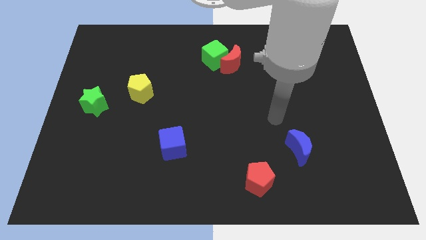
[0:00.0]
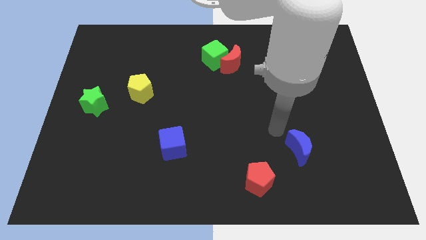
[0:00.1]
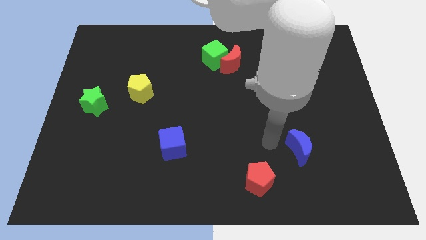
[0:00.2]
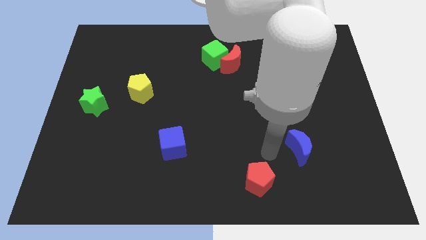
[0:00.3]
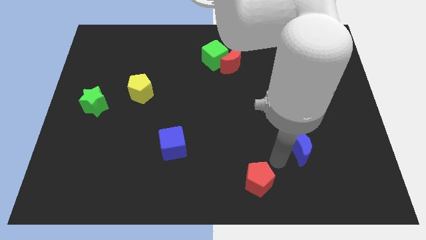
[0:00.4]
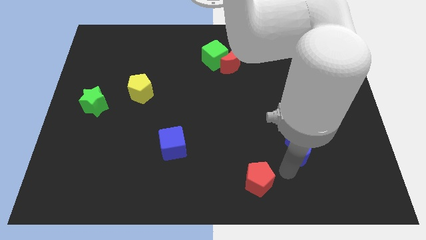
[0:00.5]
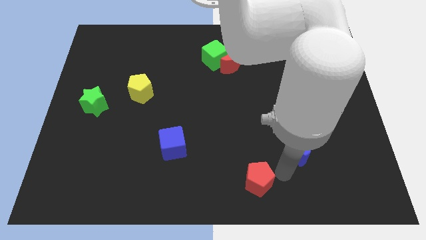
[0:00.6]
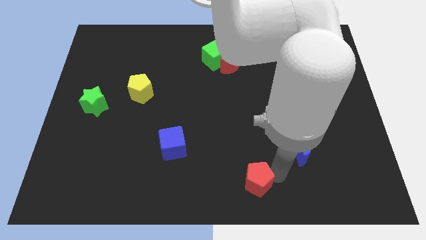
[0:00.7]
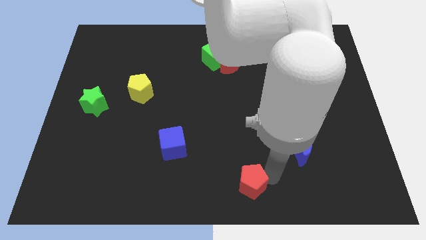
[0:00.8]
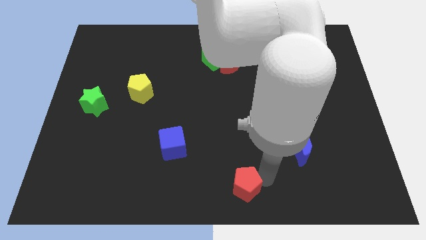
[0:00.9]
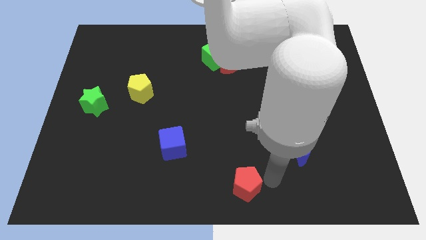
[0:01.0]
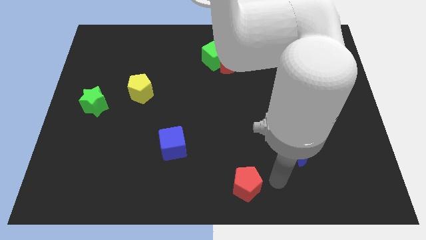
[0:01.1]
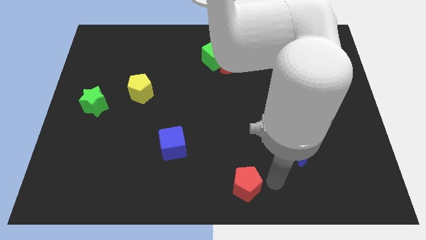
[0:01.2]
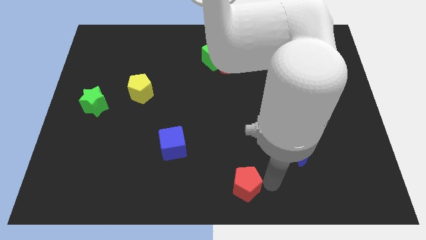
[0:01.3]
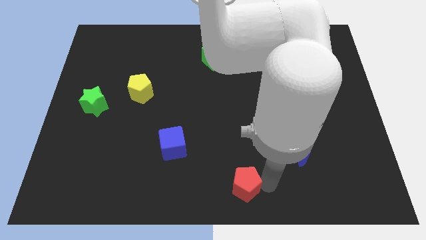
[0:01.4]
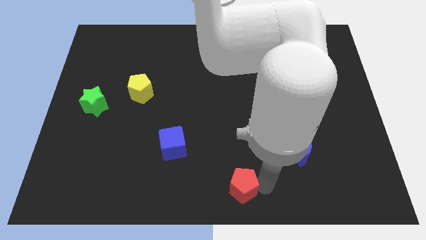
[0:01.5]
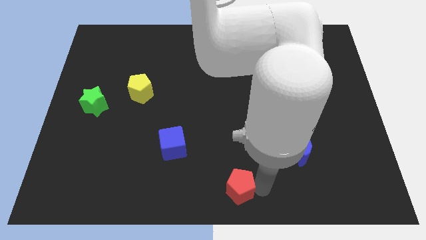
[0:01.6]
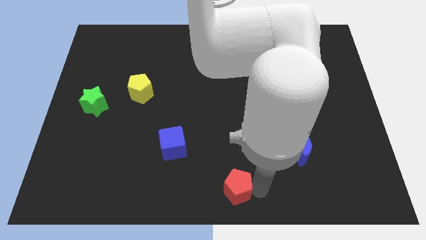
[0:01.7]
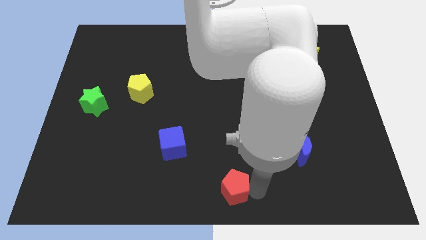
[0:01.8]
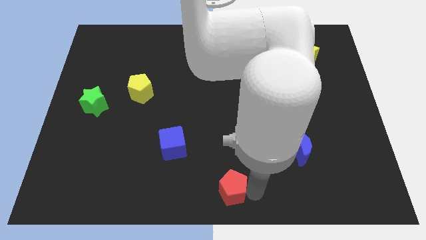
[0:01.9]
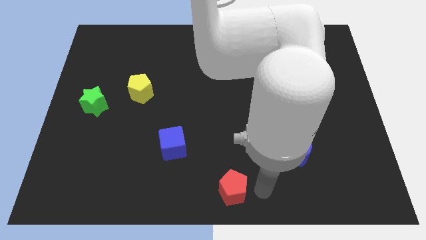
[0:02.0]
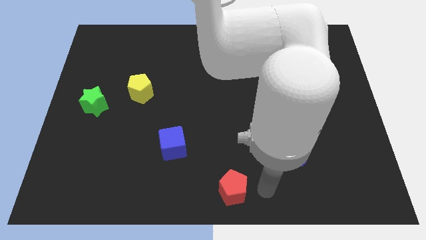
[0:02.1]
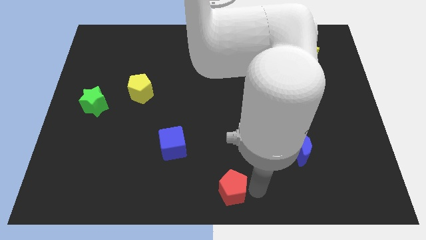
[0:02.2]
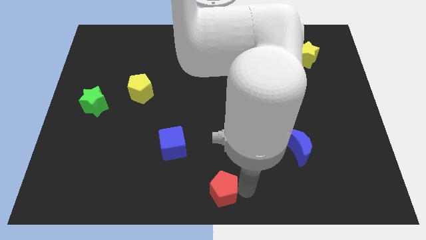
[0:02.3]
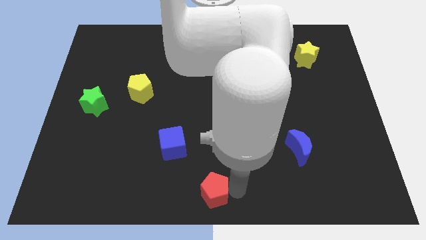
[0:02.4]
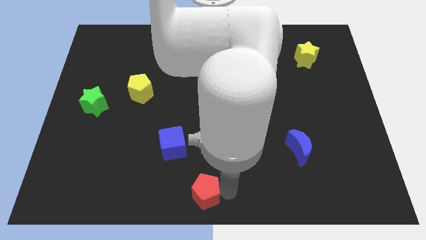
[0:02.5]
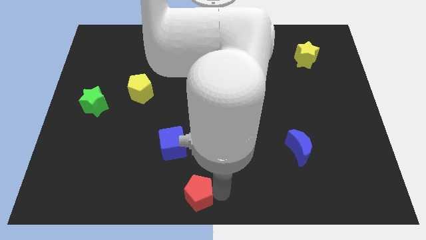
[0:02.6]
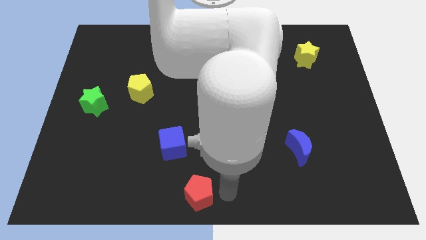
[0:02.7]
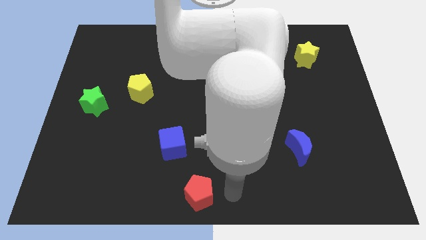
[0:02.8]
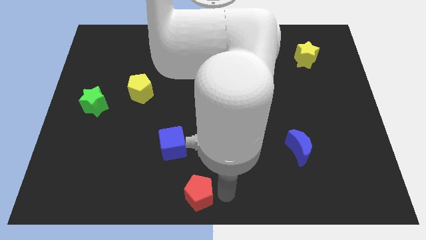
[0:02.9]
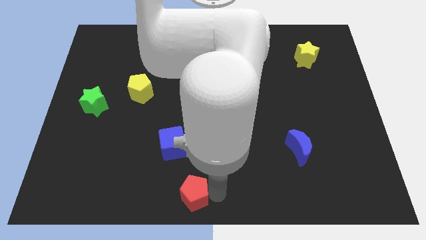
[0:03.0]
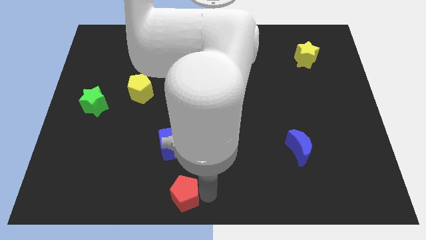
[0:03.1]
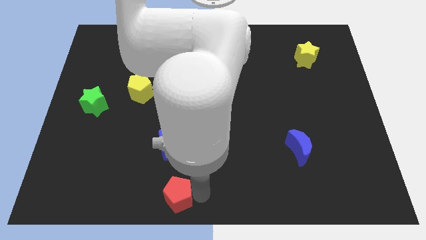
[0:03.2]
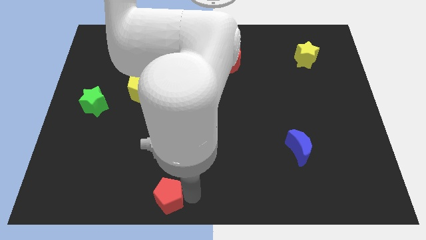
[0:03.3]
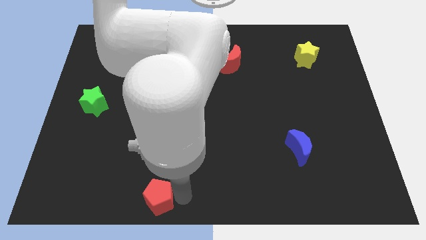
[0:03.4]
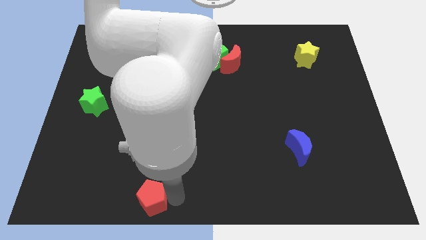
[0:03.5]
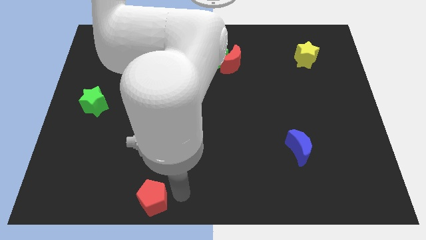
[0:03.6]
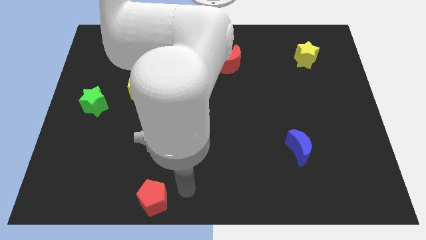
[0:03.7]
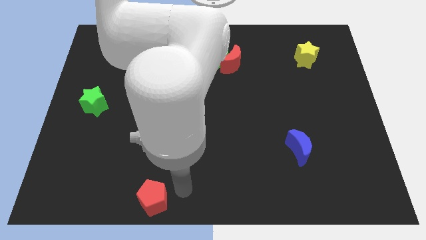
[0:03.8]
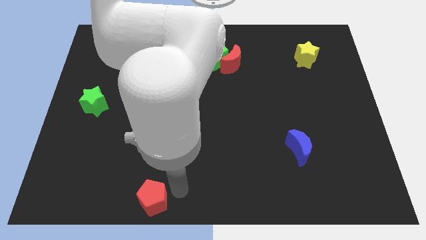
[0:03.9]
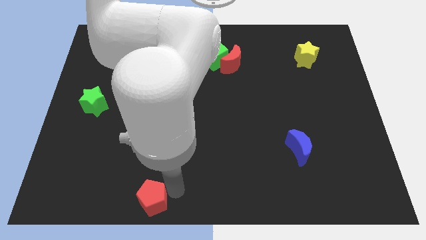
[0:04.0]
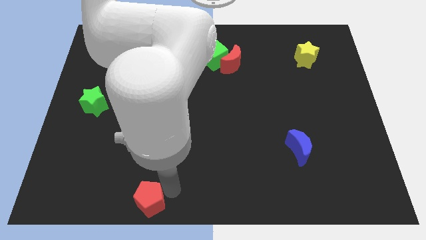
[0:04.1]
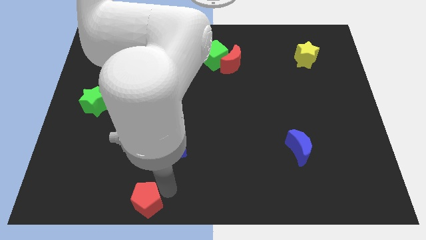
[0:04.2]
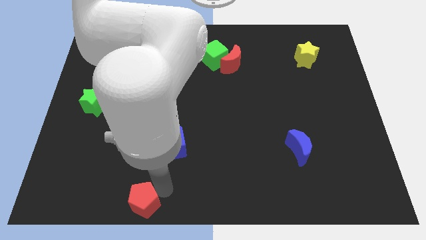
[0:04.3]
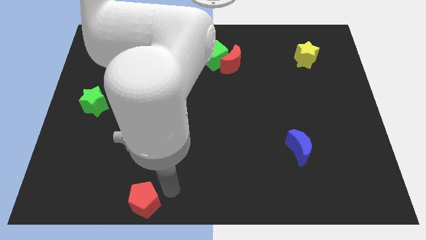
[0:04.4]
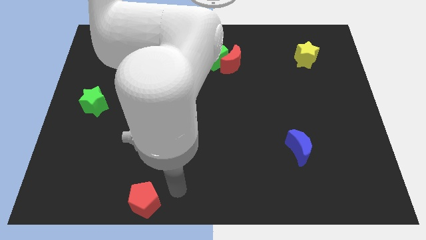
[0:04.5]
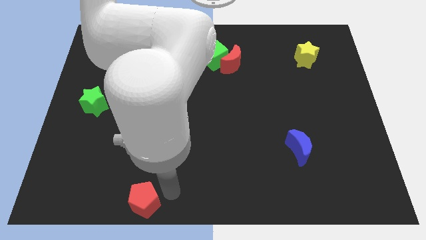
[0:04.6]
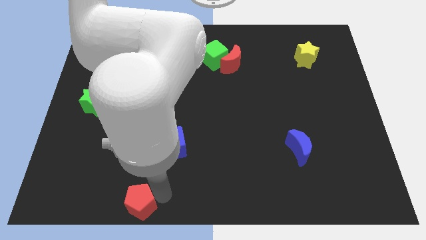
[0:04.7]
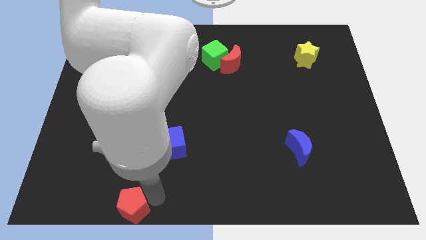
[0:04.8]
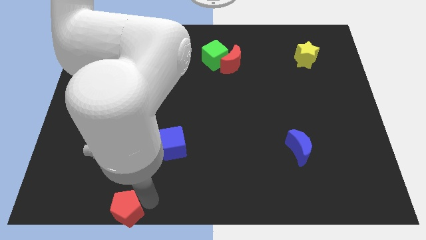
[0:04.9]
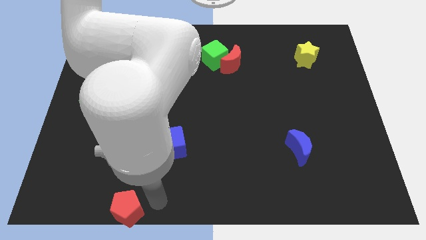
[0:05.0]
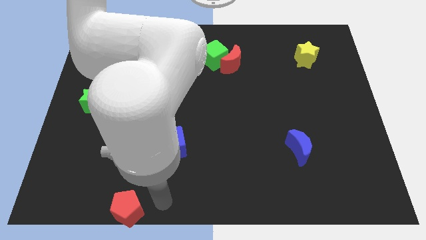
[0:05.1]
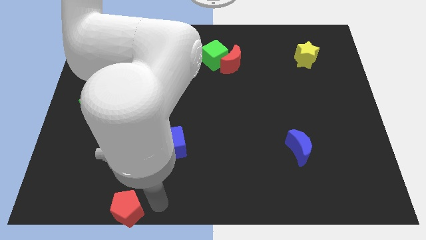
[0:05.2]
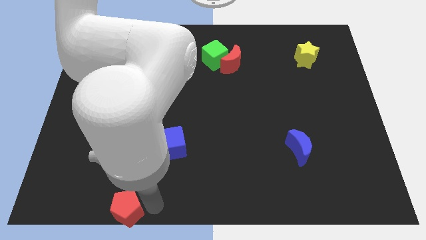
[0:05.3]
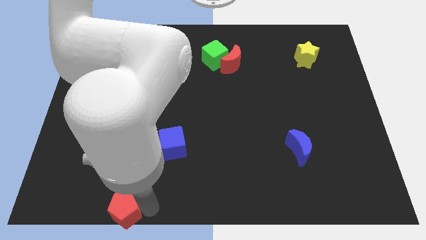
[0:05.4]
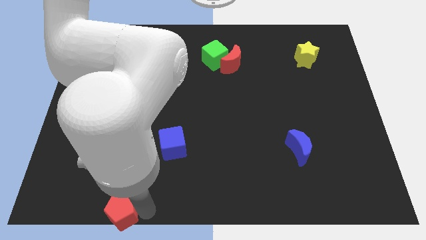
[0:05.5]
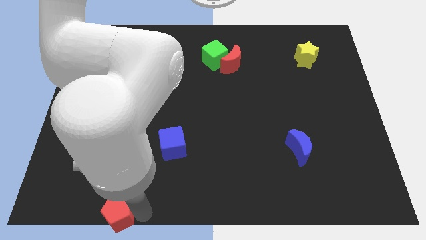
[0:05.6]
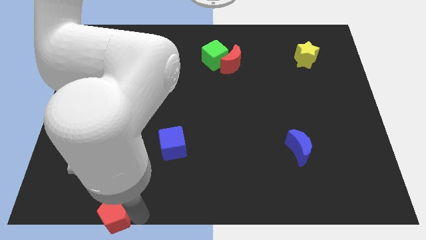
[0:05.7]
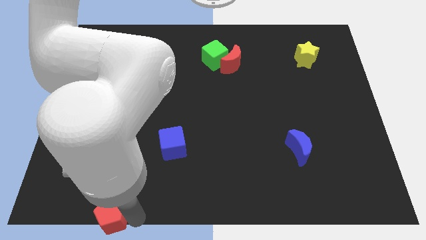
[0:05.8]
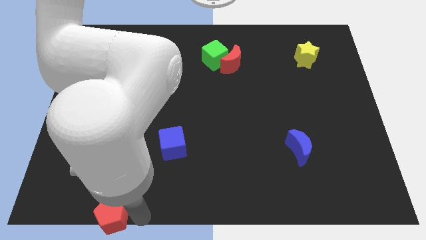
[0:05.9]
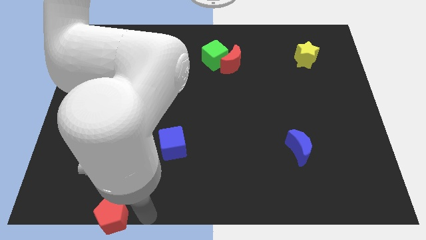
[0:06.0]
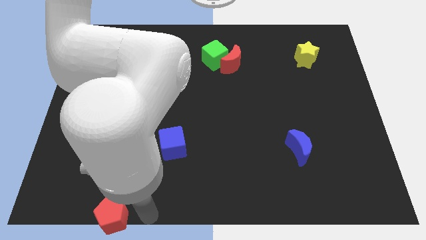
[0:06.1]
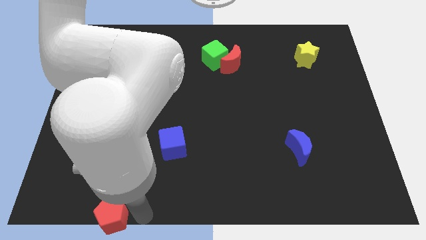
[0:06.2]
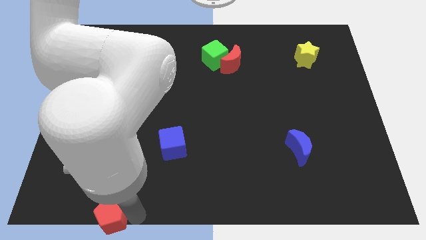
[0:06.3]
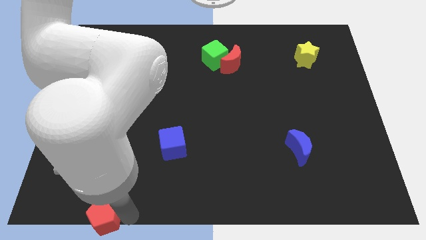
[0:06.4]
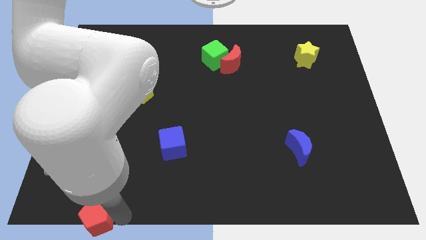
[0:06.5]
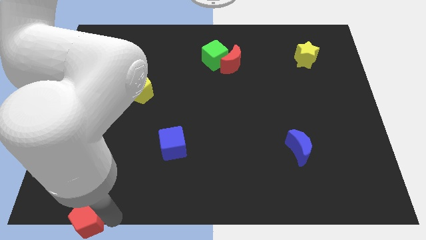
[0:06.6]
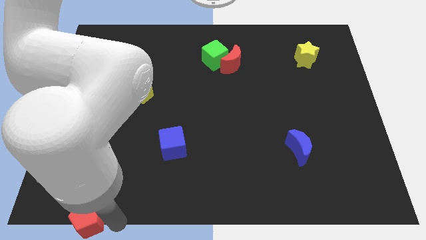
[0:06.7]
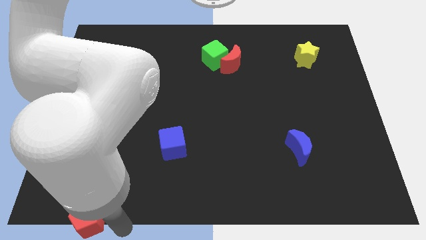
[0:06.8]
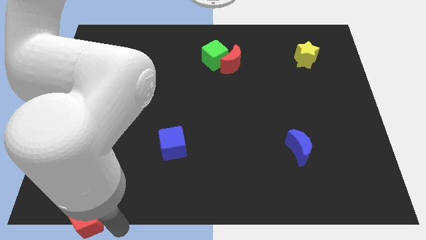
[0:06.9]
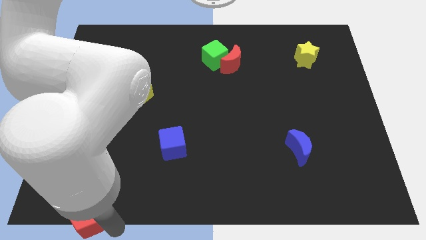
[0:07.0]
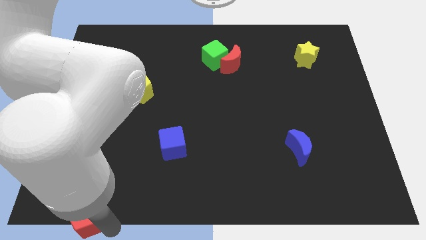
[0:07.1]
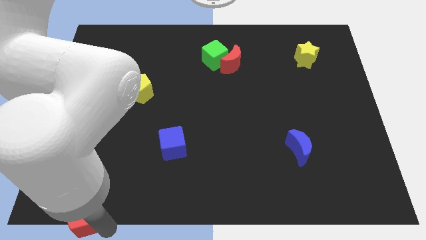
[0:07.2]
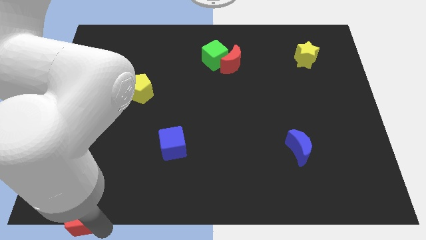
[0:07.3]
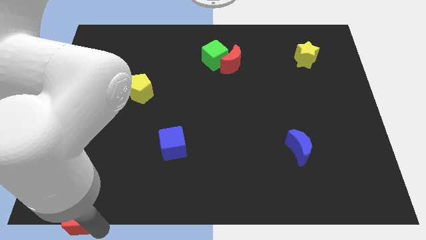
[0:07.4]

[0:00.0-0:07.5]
slide the red pentagon to the bottom left of the board
